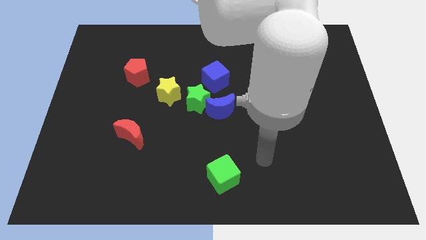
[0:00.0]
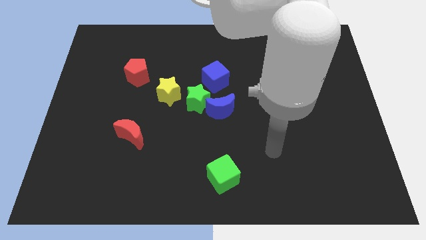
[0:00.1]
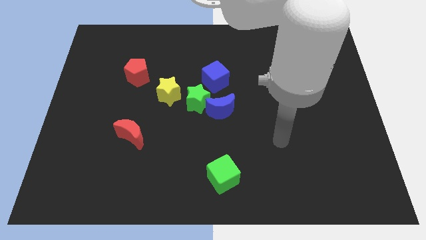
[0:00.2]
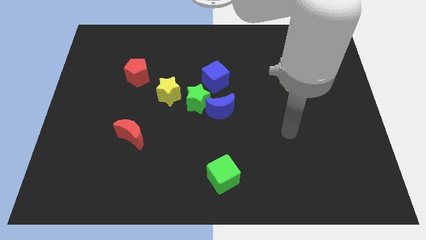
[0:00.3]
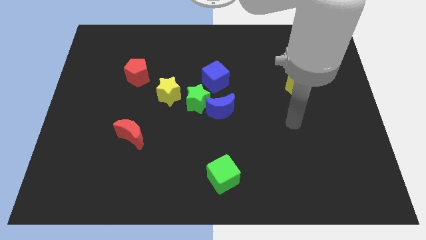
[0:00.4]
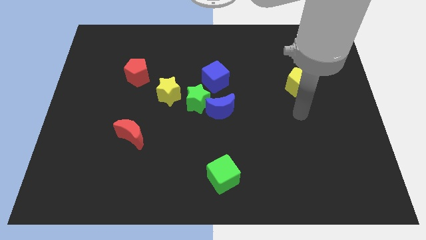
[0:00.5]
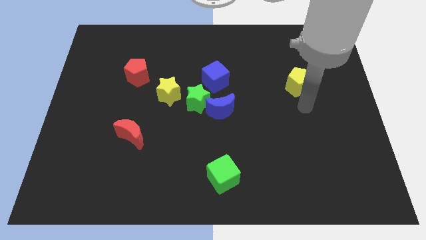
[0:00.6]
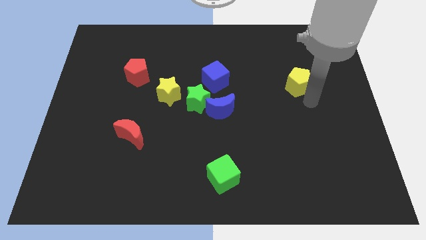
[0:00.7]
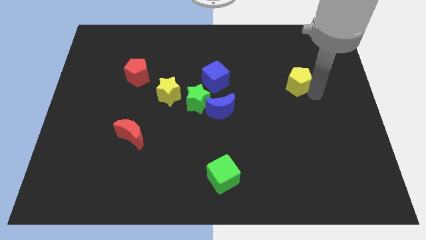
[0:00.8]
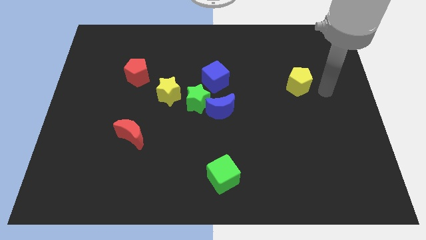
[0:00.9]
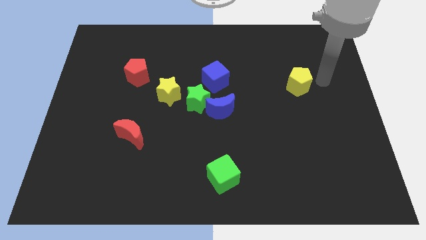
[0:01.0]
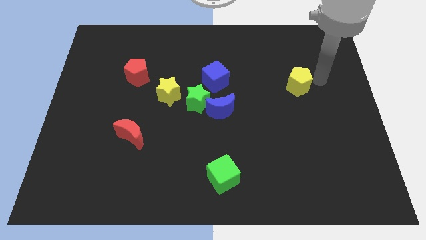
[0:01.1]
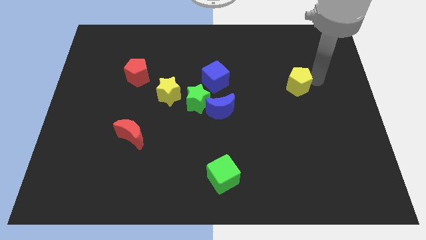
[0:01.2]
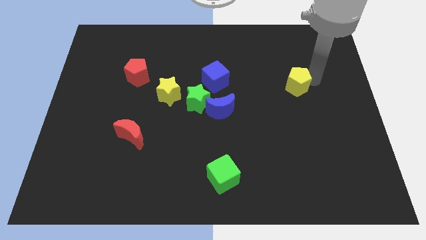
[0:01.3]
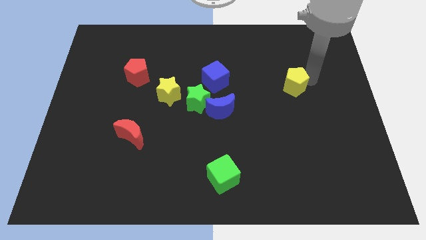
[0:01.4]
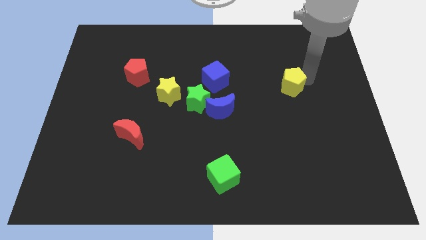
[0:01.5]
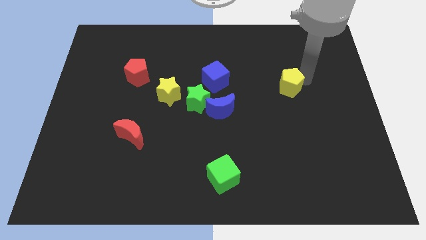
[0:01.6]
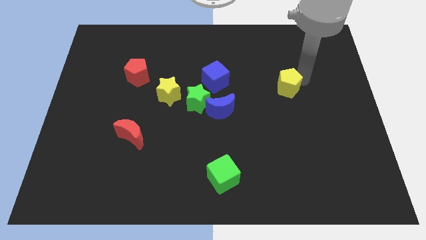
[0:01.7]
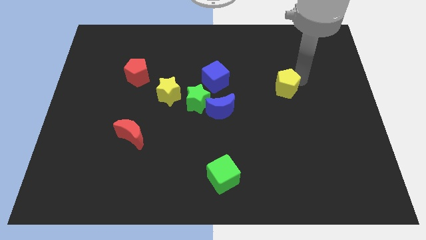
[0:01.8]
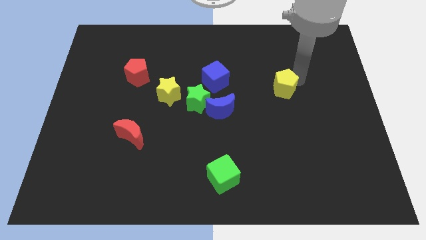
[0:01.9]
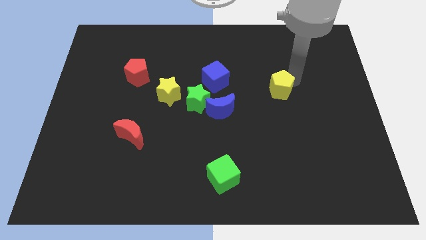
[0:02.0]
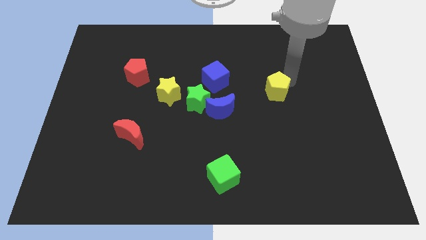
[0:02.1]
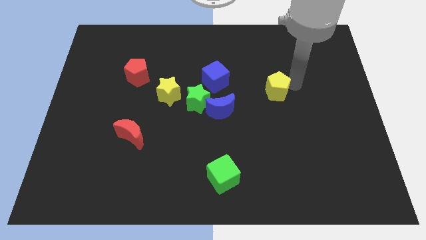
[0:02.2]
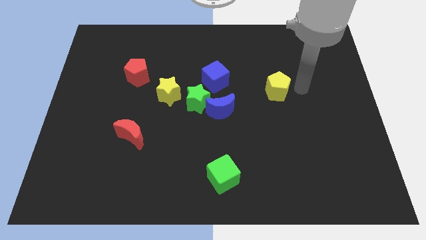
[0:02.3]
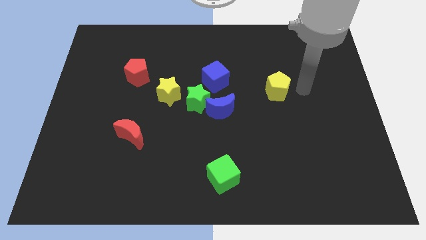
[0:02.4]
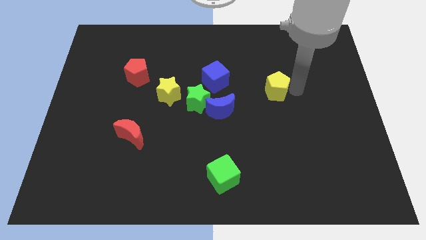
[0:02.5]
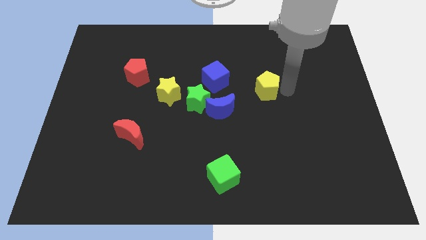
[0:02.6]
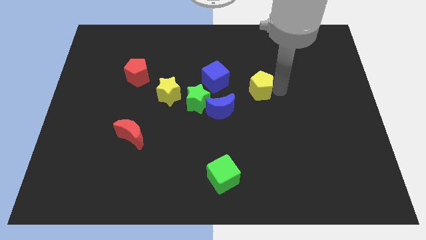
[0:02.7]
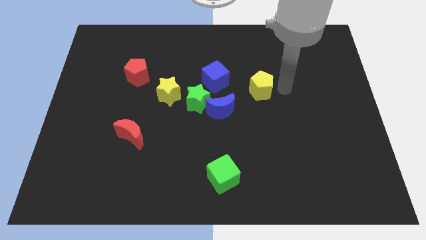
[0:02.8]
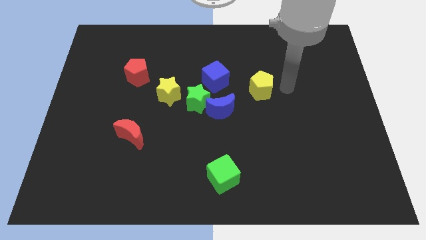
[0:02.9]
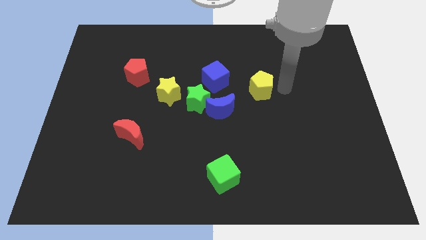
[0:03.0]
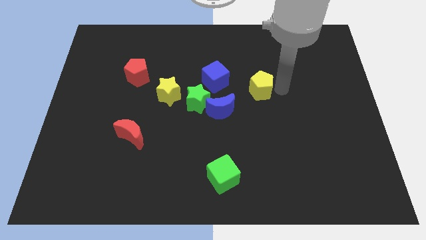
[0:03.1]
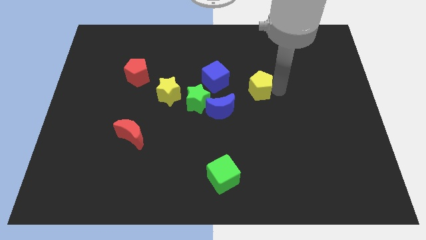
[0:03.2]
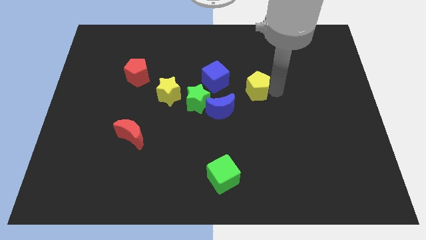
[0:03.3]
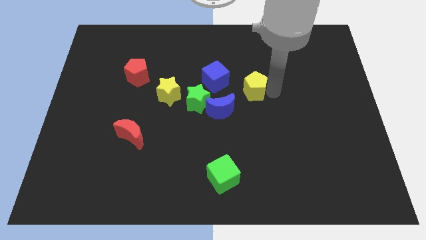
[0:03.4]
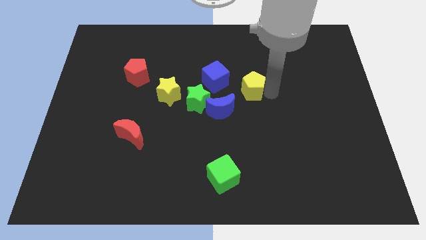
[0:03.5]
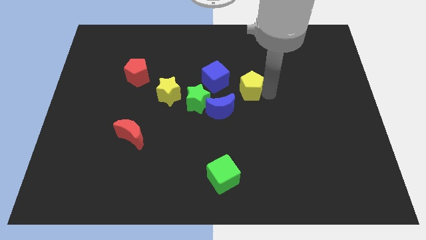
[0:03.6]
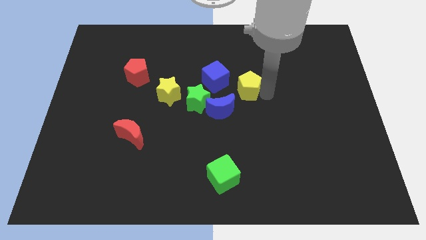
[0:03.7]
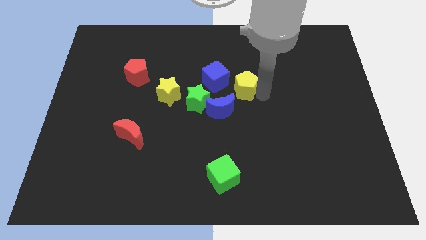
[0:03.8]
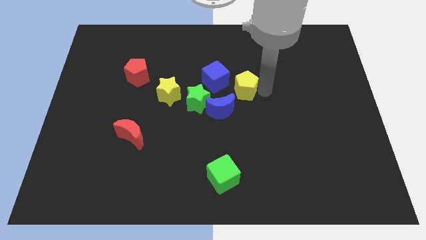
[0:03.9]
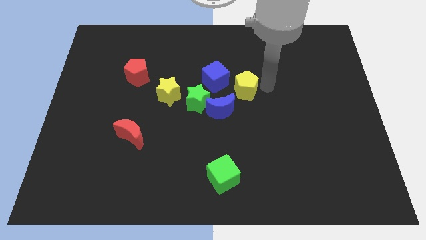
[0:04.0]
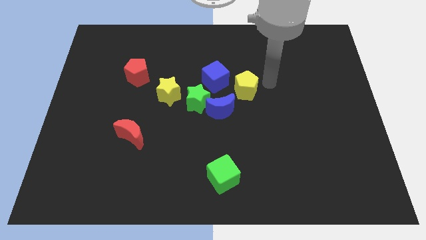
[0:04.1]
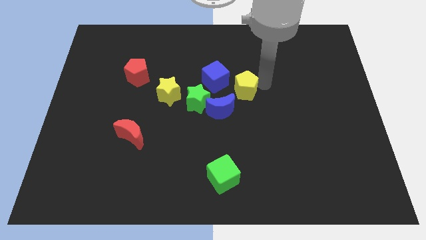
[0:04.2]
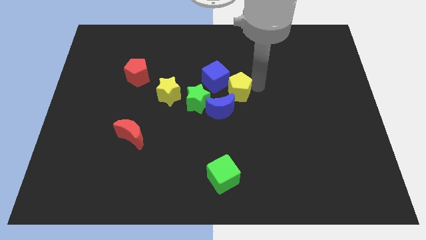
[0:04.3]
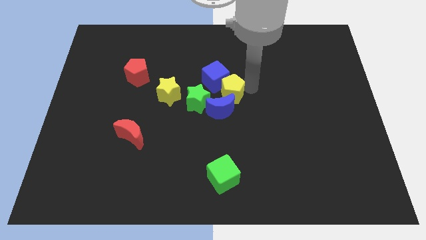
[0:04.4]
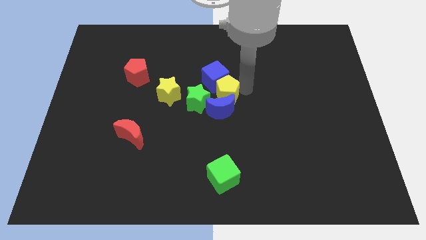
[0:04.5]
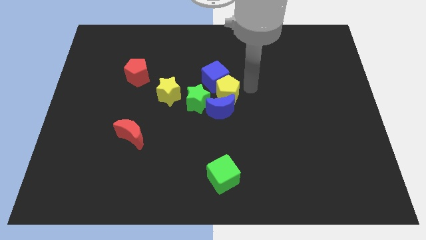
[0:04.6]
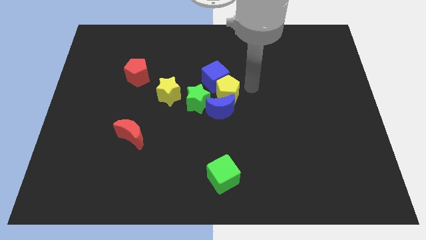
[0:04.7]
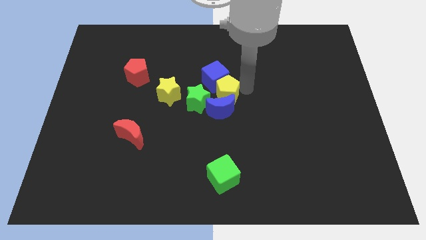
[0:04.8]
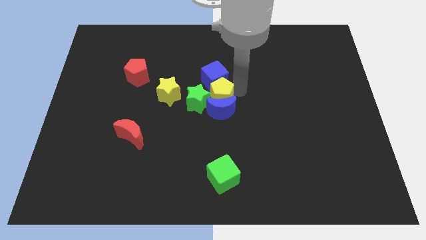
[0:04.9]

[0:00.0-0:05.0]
slide the yellow pentagon next to the green star

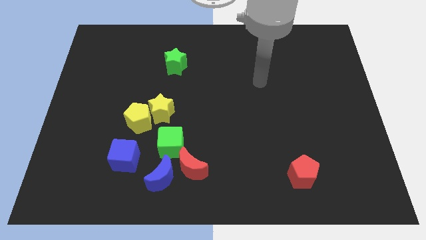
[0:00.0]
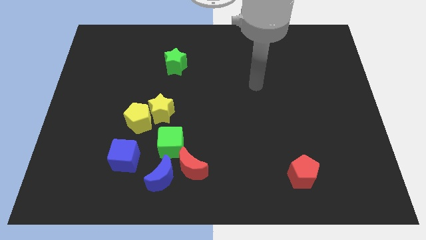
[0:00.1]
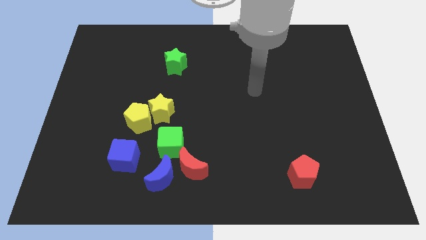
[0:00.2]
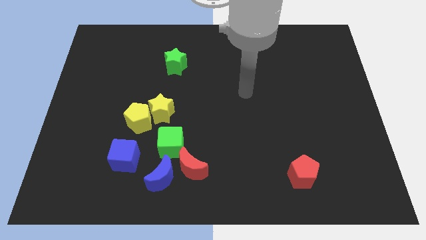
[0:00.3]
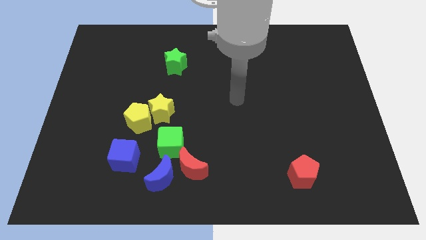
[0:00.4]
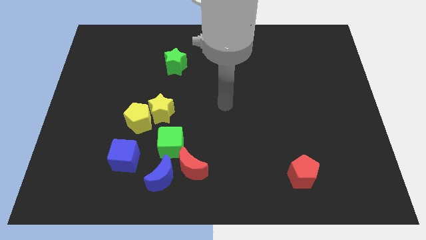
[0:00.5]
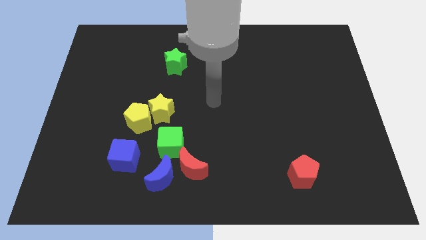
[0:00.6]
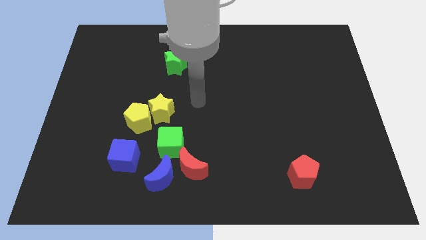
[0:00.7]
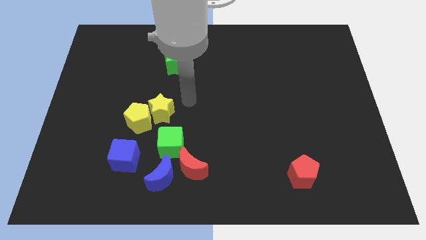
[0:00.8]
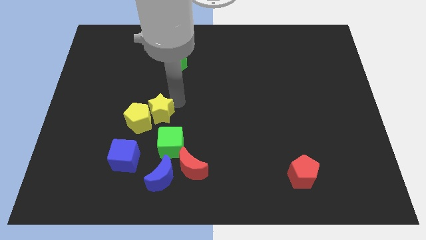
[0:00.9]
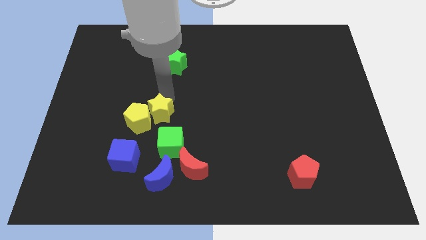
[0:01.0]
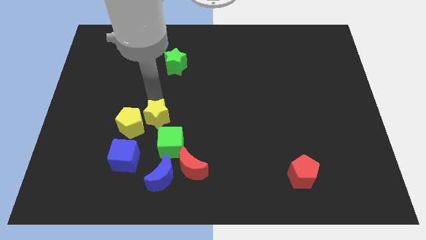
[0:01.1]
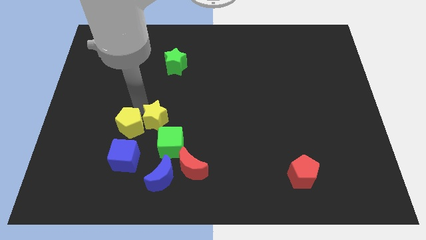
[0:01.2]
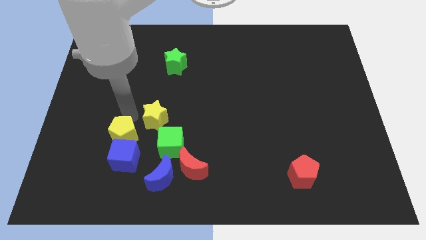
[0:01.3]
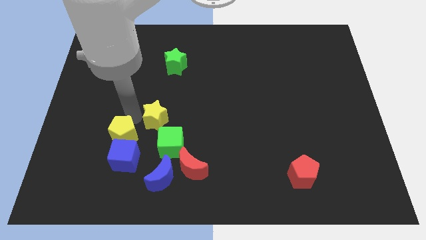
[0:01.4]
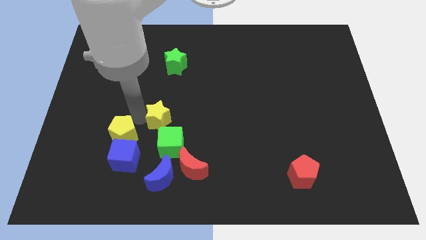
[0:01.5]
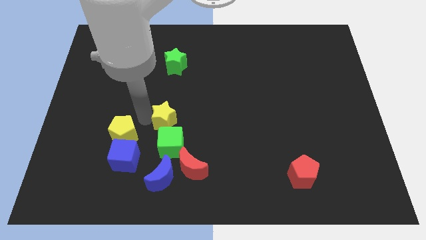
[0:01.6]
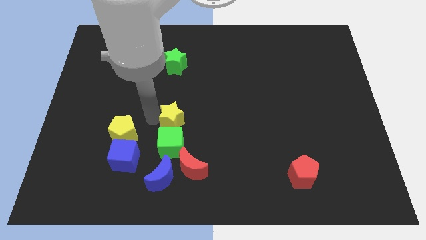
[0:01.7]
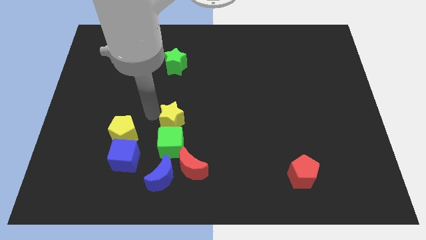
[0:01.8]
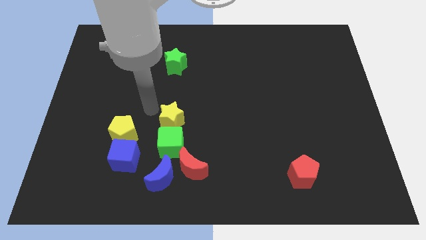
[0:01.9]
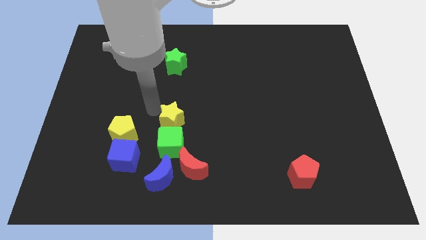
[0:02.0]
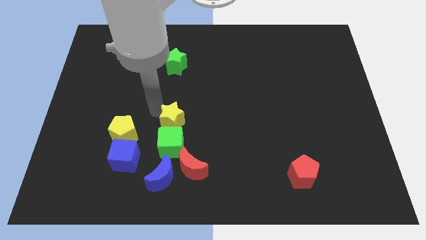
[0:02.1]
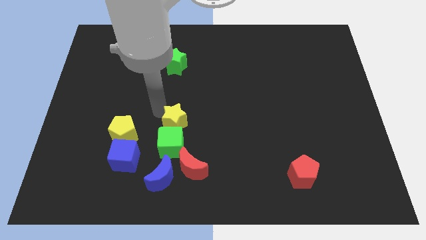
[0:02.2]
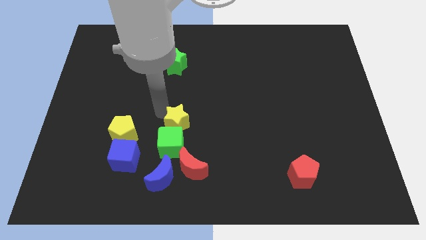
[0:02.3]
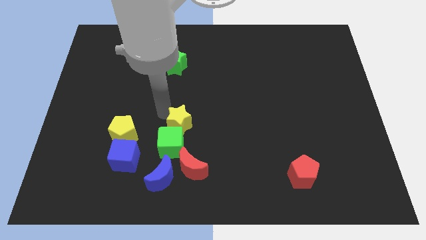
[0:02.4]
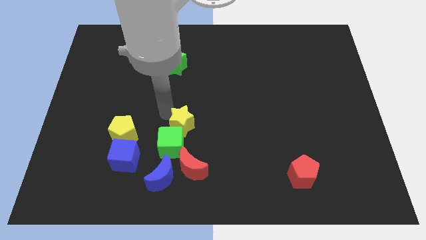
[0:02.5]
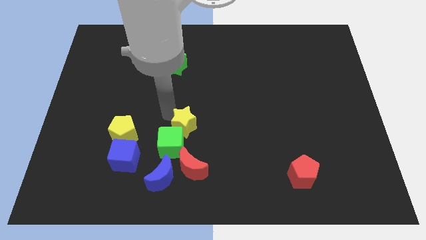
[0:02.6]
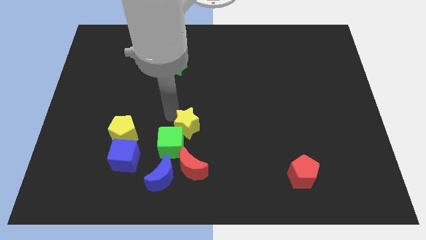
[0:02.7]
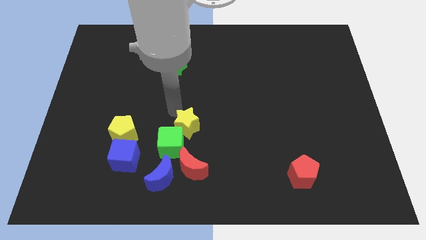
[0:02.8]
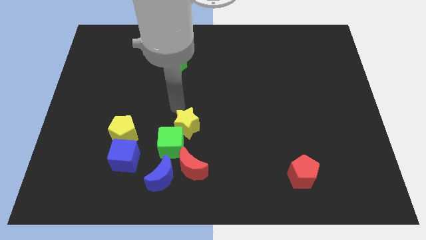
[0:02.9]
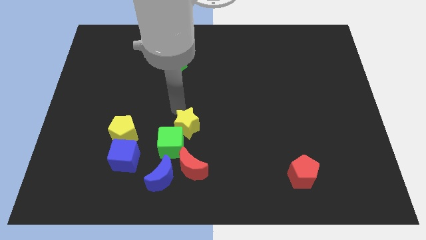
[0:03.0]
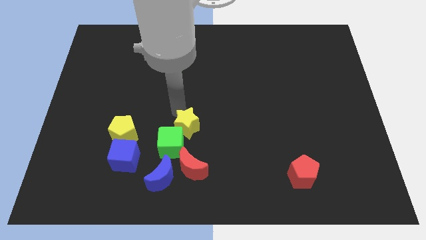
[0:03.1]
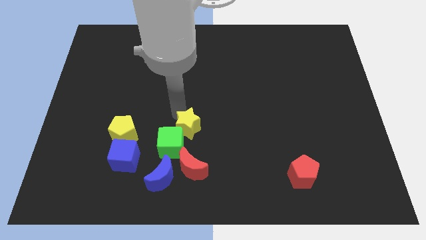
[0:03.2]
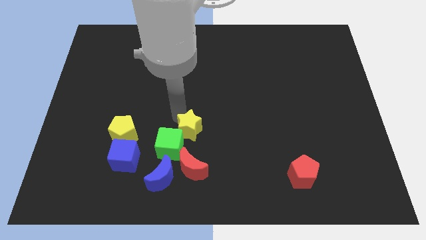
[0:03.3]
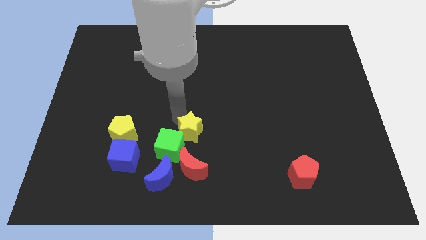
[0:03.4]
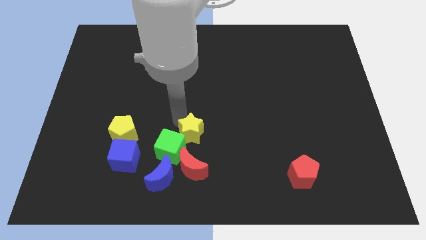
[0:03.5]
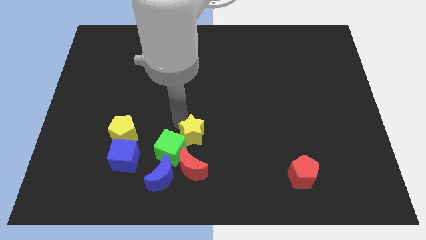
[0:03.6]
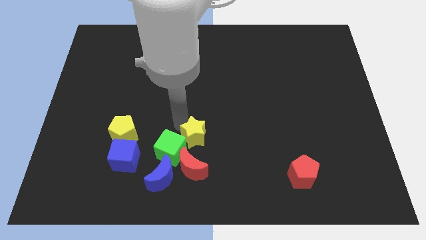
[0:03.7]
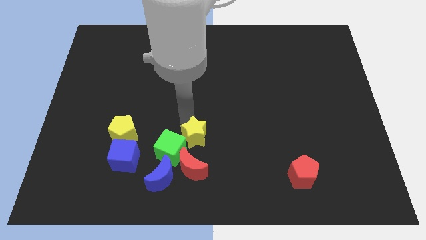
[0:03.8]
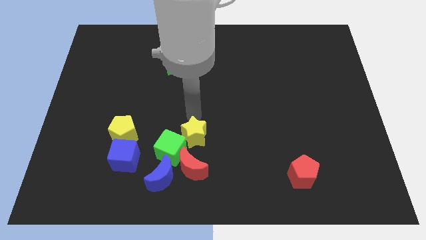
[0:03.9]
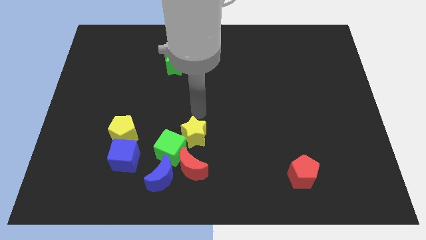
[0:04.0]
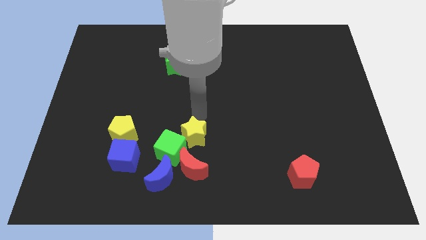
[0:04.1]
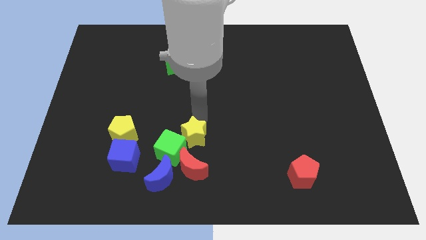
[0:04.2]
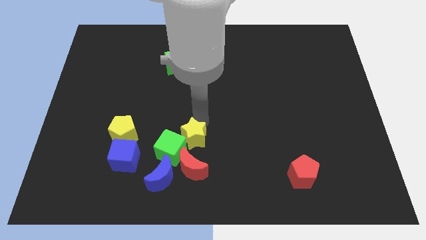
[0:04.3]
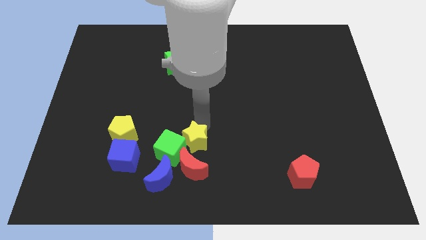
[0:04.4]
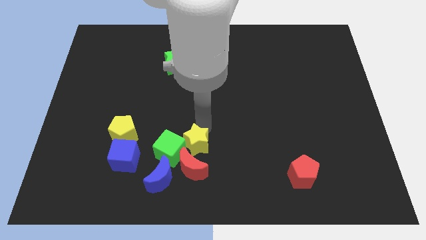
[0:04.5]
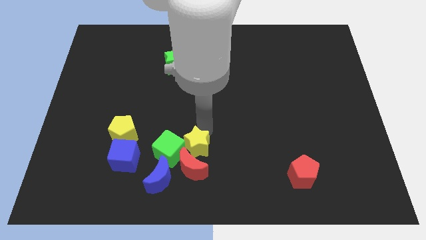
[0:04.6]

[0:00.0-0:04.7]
push the yellow star next to the red moon
